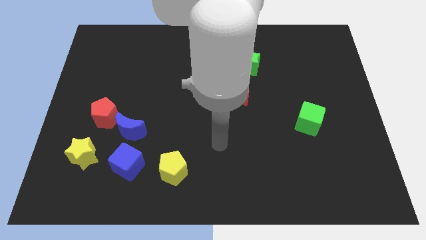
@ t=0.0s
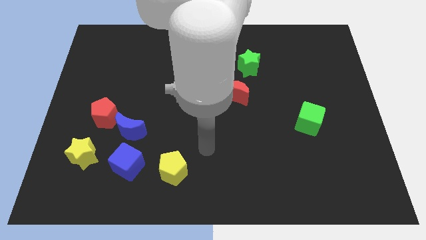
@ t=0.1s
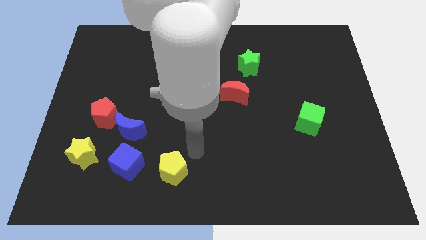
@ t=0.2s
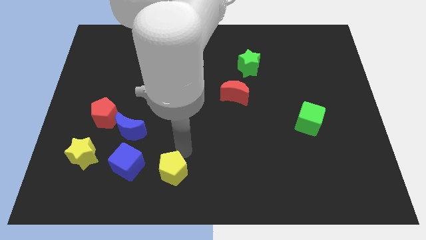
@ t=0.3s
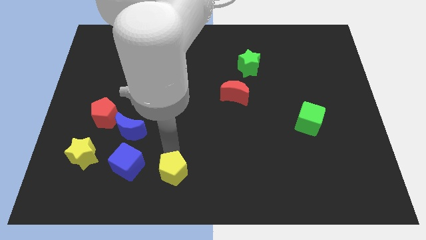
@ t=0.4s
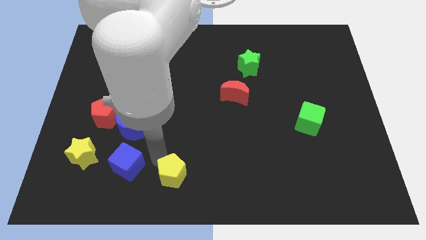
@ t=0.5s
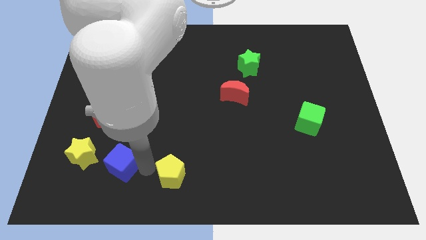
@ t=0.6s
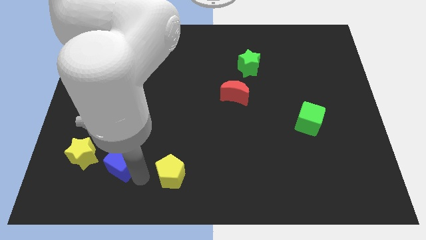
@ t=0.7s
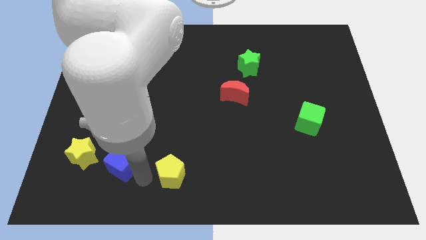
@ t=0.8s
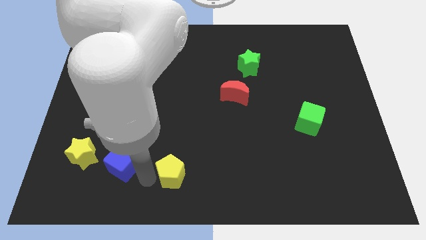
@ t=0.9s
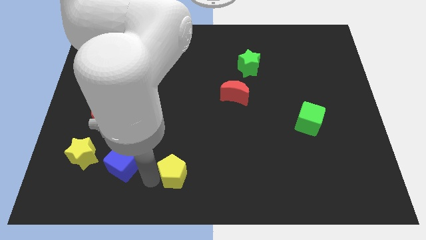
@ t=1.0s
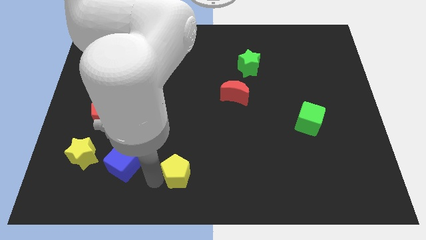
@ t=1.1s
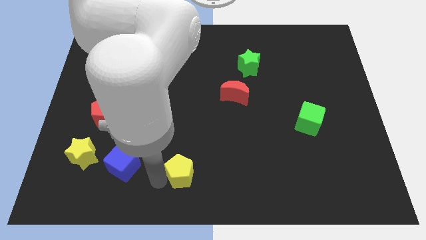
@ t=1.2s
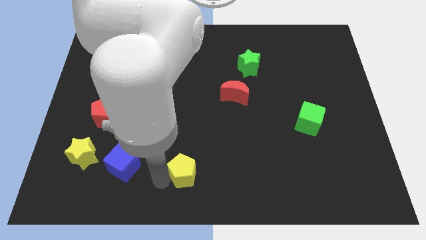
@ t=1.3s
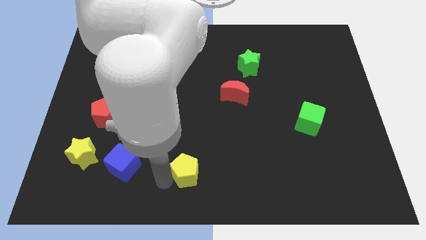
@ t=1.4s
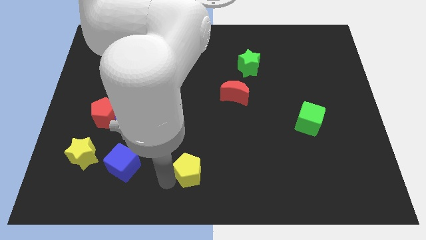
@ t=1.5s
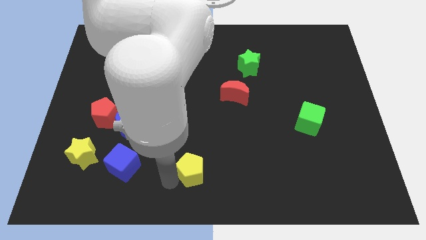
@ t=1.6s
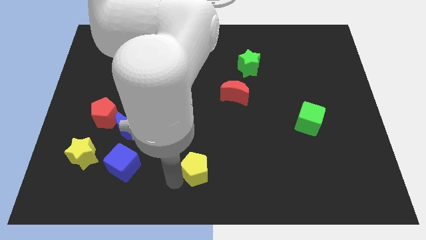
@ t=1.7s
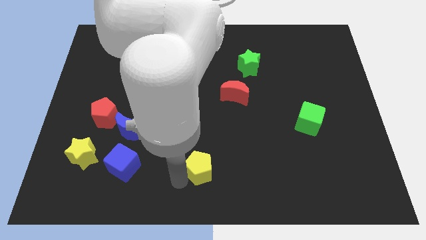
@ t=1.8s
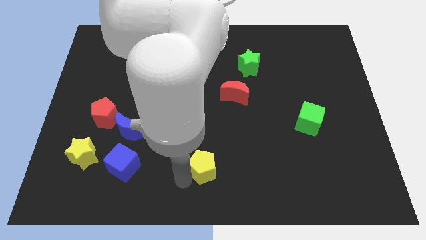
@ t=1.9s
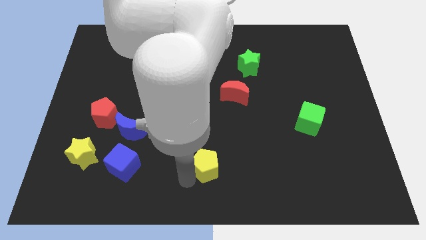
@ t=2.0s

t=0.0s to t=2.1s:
push the yellow pentagon somewhat right

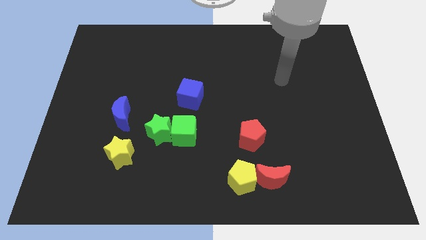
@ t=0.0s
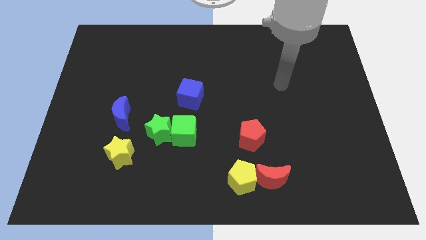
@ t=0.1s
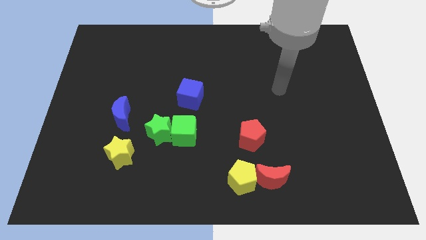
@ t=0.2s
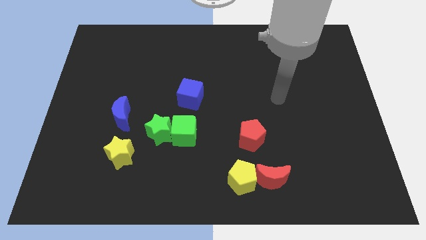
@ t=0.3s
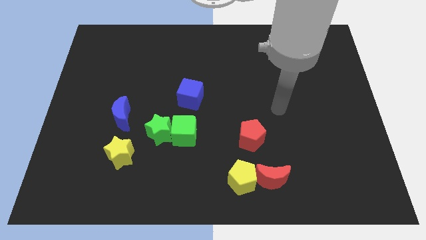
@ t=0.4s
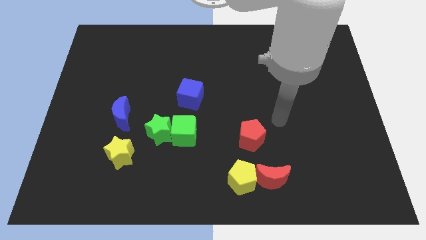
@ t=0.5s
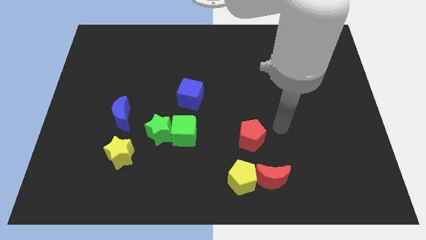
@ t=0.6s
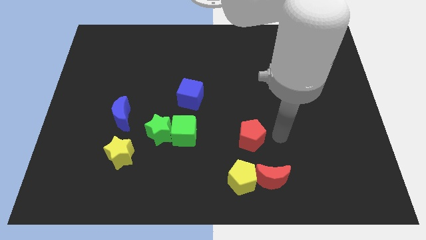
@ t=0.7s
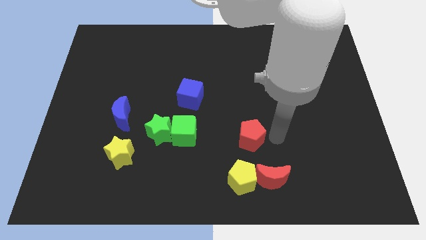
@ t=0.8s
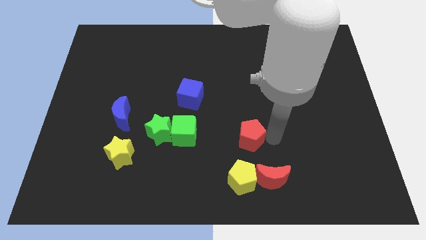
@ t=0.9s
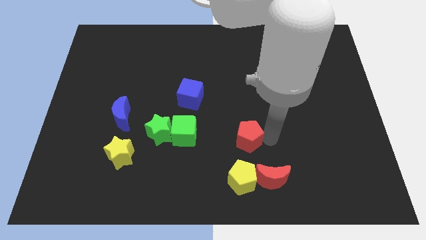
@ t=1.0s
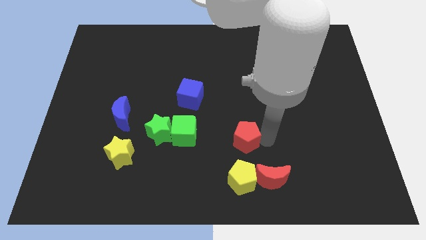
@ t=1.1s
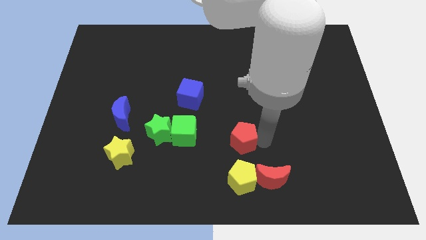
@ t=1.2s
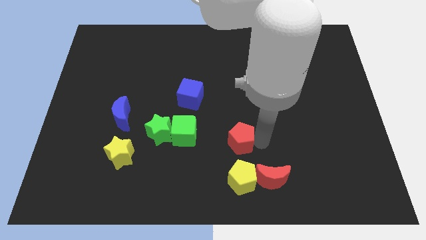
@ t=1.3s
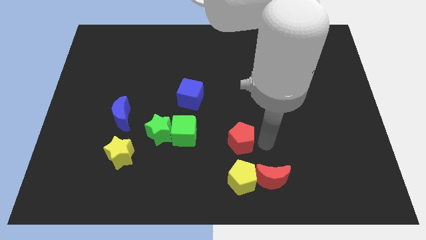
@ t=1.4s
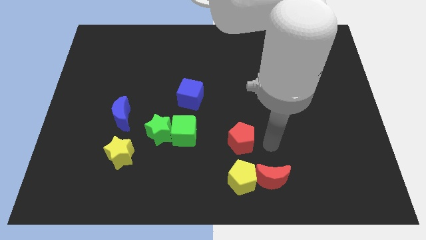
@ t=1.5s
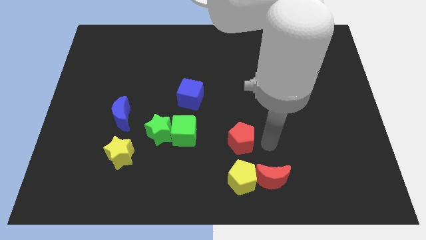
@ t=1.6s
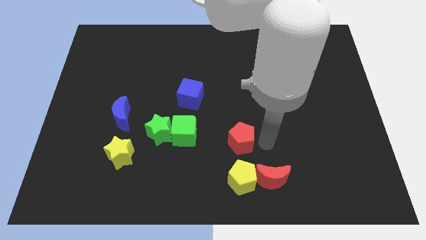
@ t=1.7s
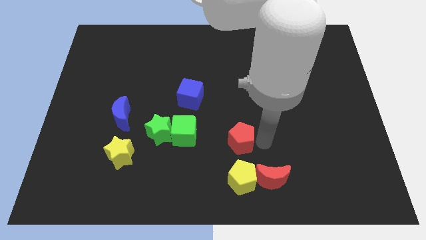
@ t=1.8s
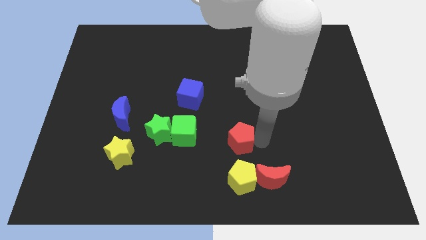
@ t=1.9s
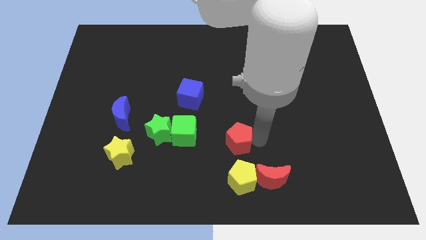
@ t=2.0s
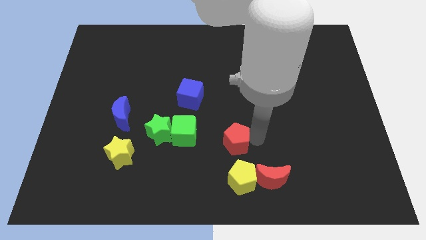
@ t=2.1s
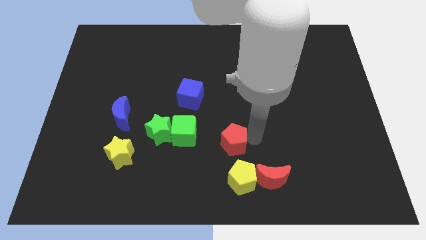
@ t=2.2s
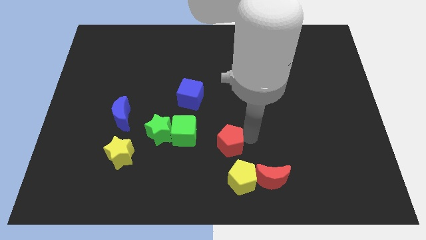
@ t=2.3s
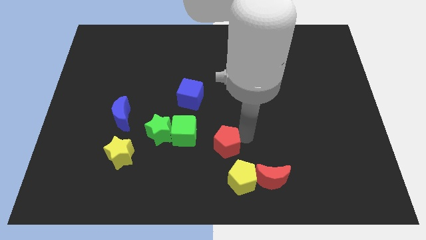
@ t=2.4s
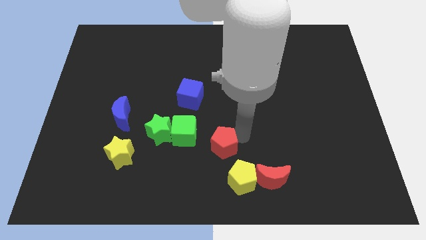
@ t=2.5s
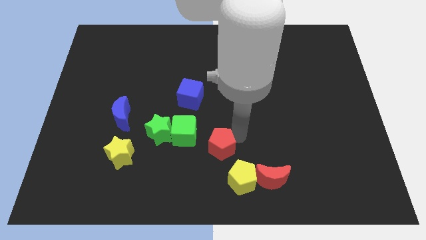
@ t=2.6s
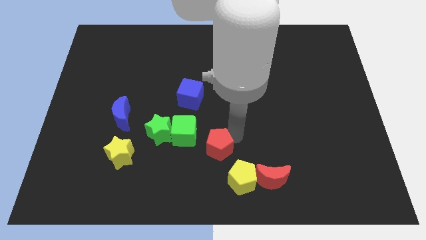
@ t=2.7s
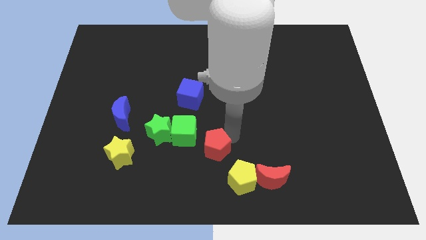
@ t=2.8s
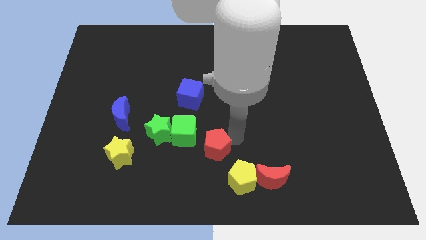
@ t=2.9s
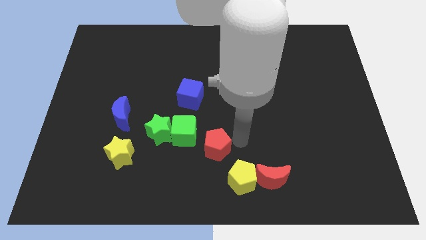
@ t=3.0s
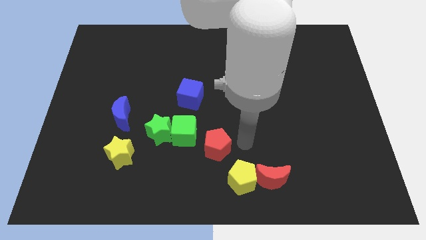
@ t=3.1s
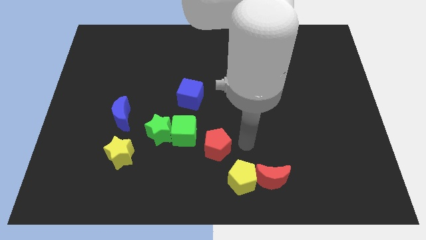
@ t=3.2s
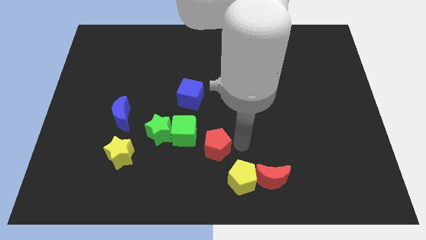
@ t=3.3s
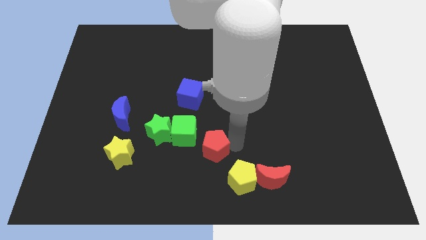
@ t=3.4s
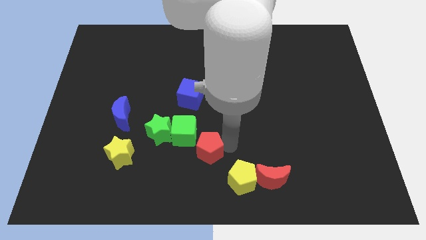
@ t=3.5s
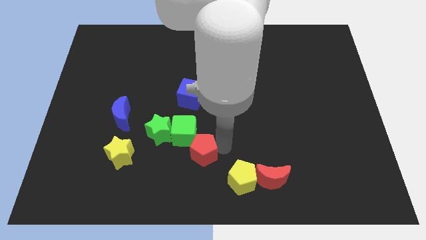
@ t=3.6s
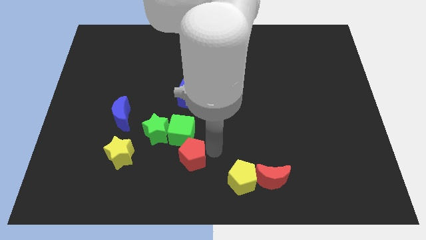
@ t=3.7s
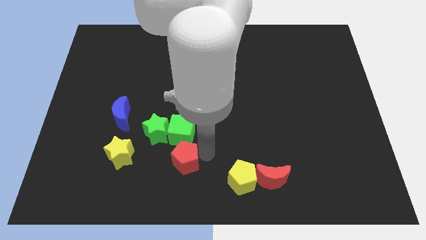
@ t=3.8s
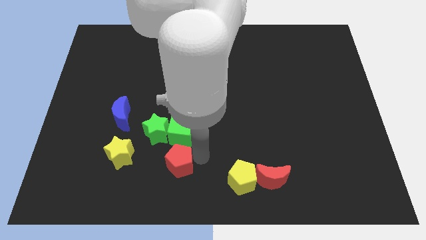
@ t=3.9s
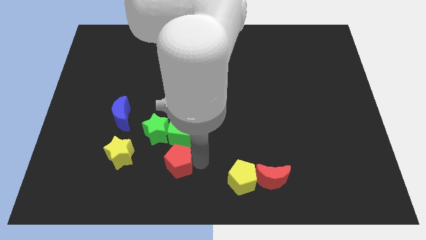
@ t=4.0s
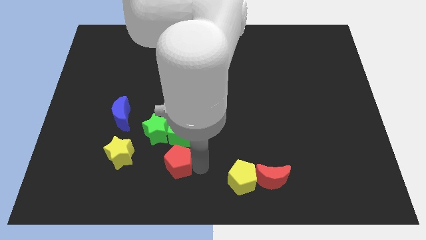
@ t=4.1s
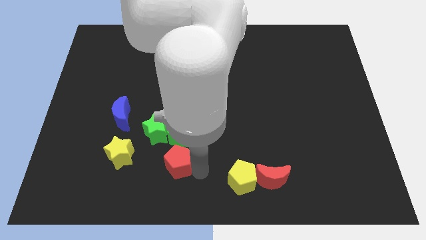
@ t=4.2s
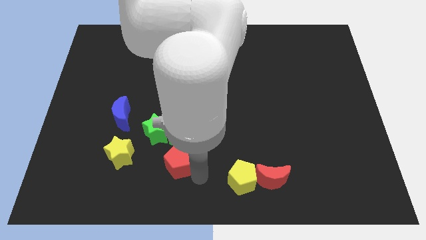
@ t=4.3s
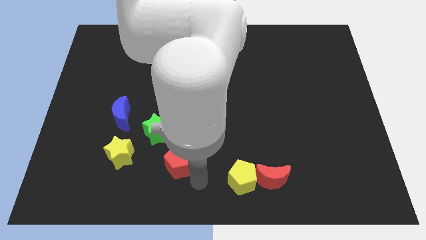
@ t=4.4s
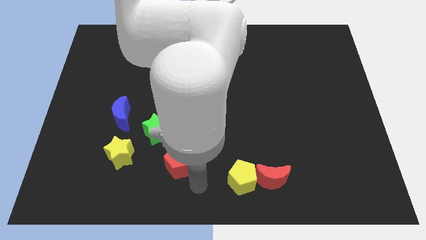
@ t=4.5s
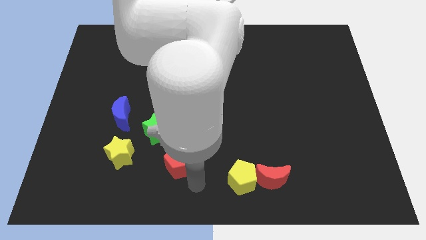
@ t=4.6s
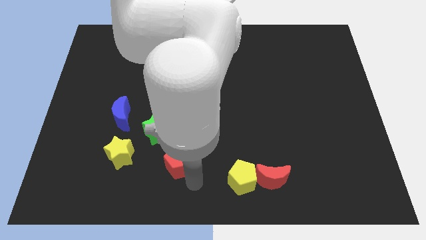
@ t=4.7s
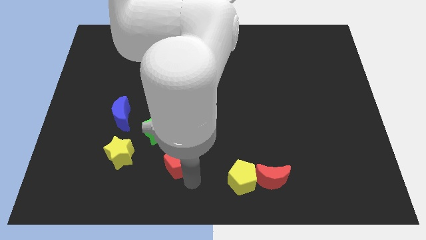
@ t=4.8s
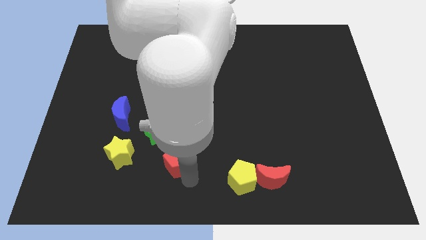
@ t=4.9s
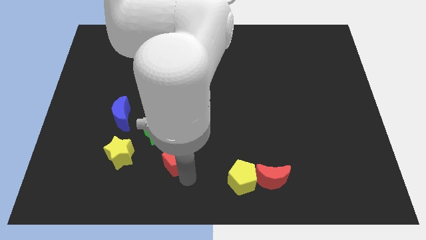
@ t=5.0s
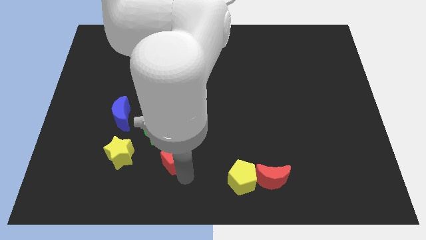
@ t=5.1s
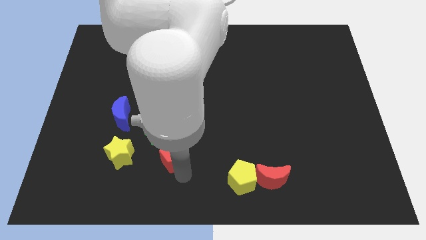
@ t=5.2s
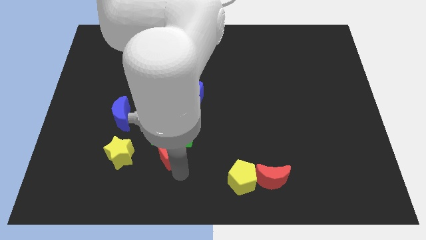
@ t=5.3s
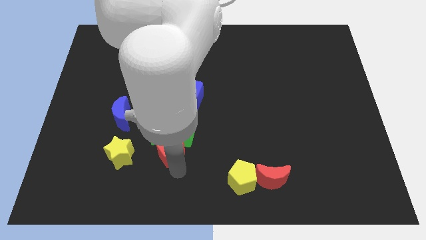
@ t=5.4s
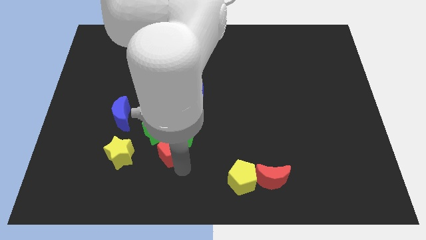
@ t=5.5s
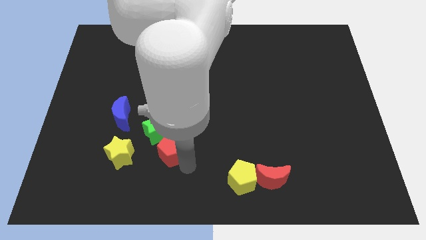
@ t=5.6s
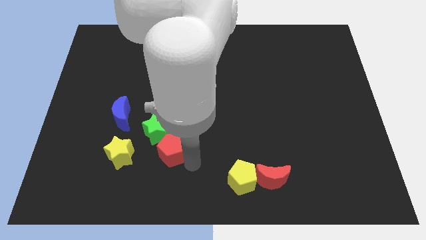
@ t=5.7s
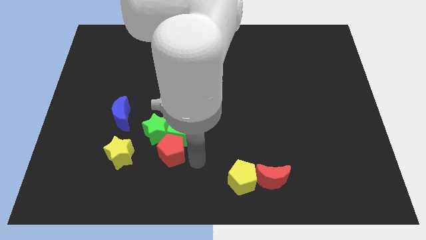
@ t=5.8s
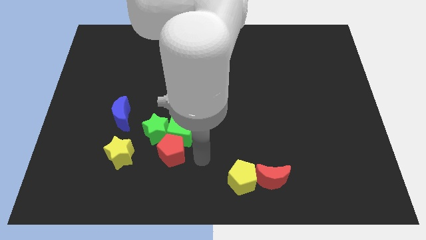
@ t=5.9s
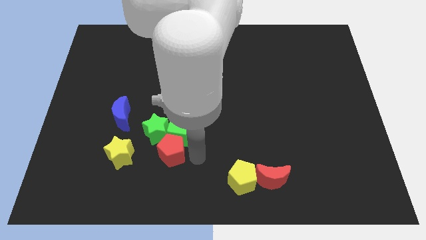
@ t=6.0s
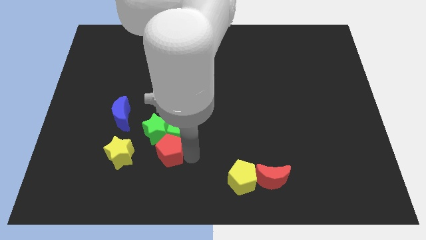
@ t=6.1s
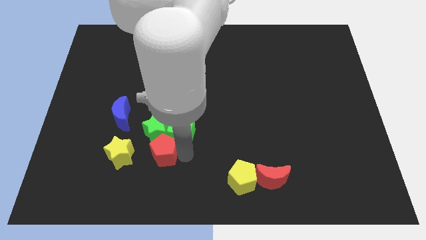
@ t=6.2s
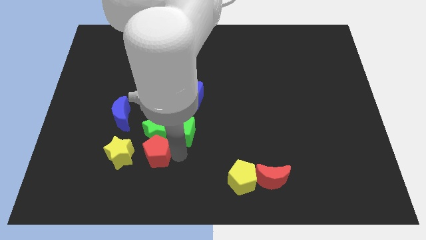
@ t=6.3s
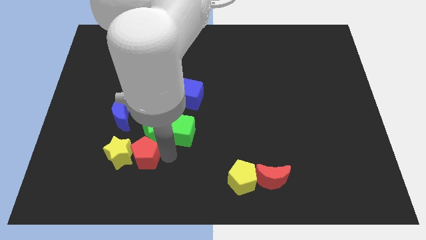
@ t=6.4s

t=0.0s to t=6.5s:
move the red pentagon to the left
